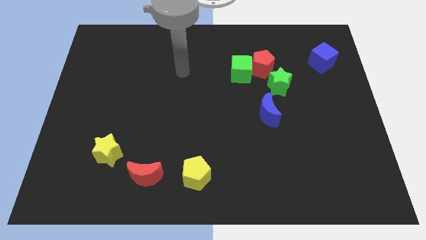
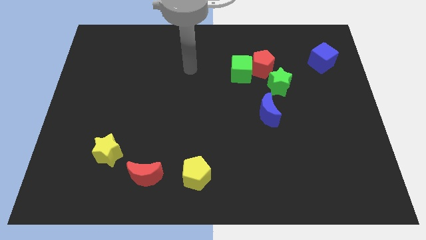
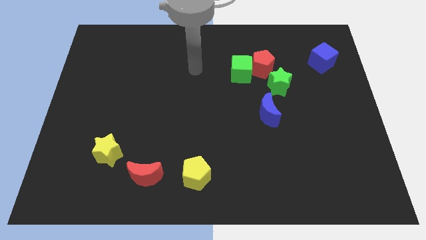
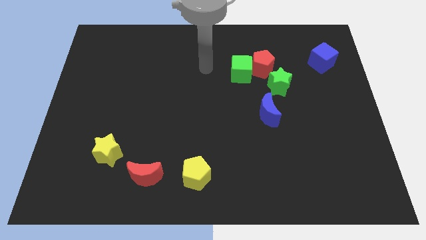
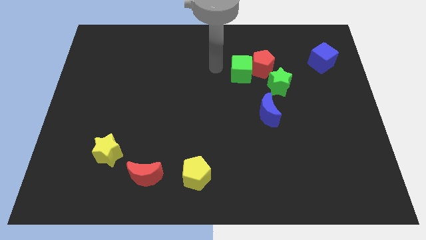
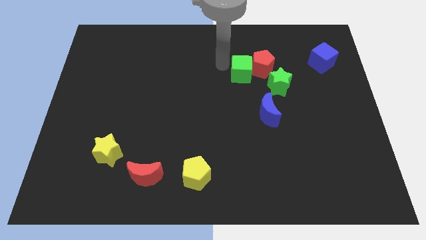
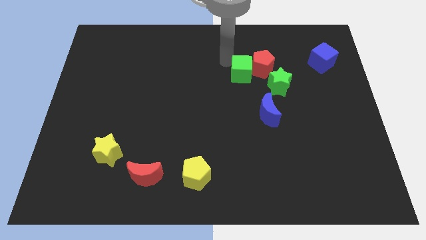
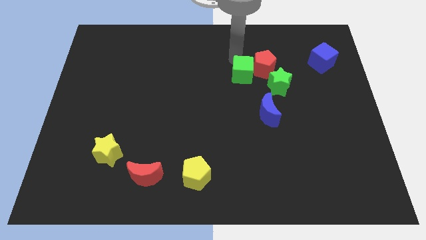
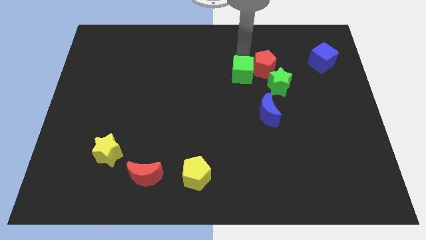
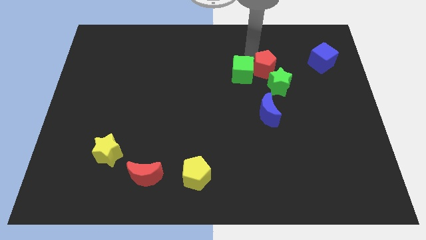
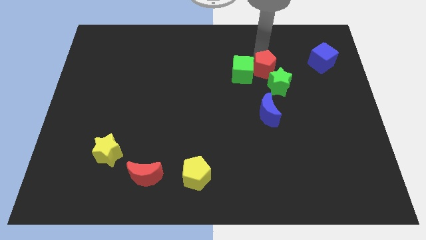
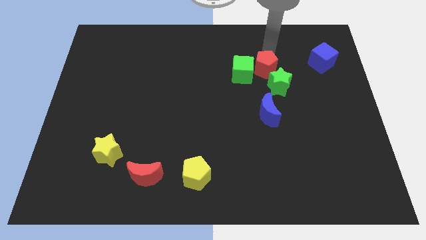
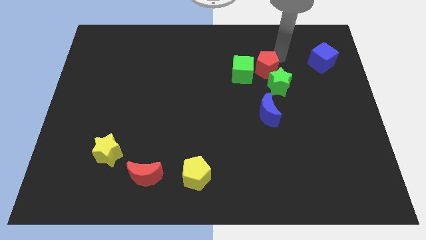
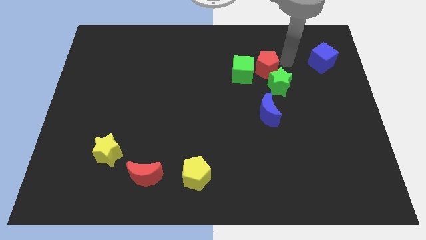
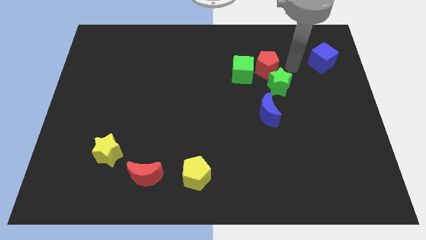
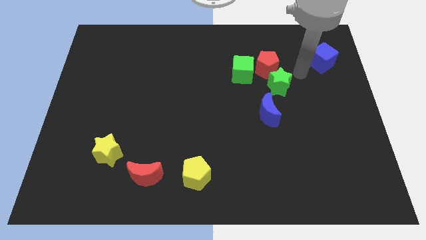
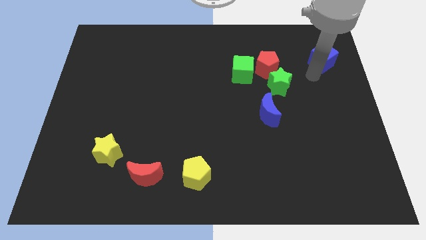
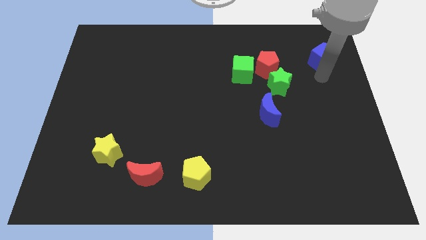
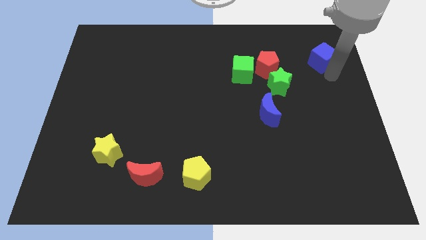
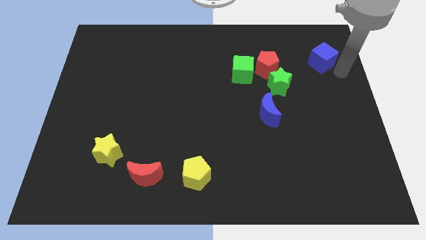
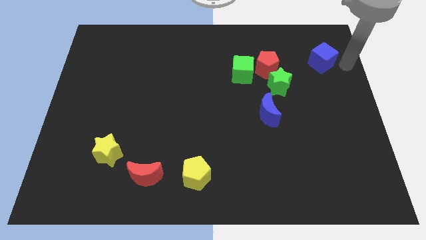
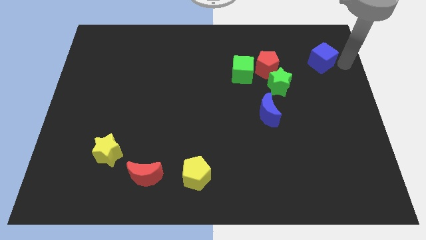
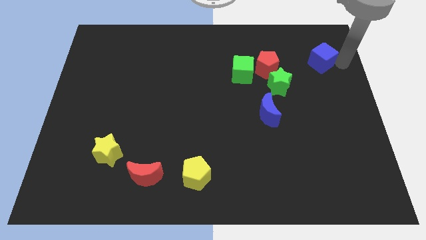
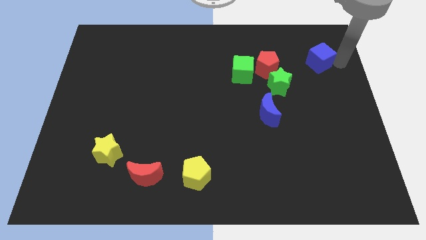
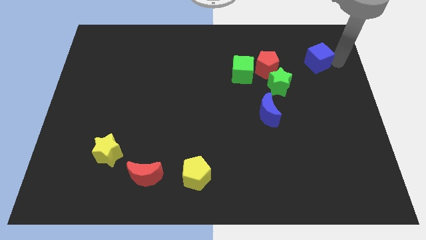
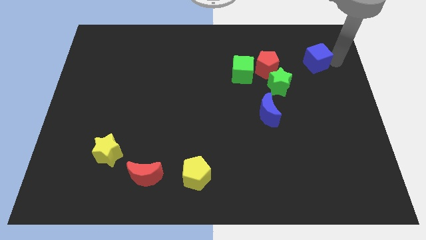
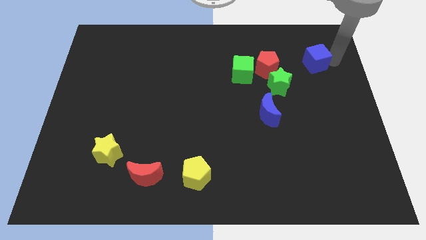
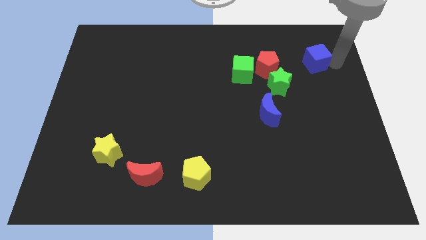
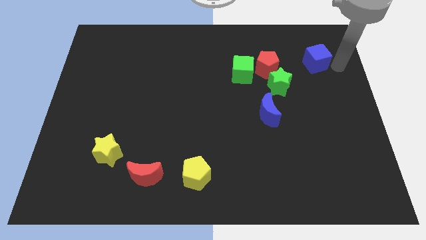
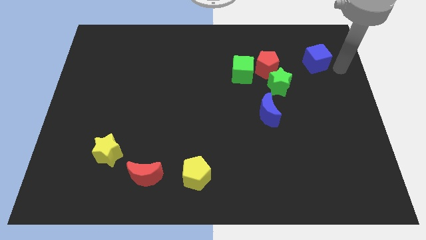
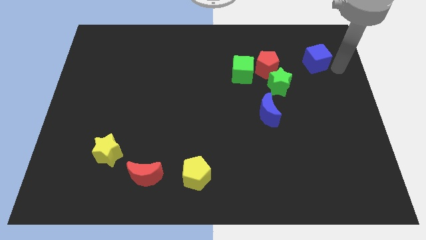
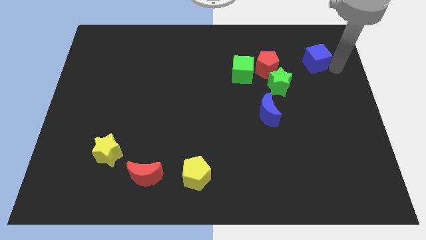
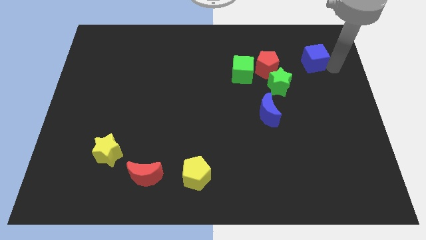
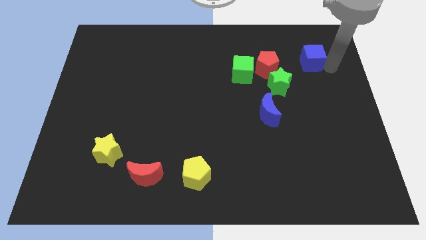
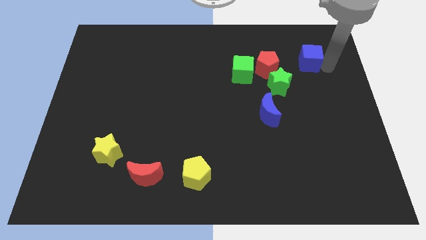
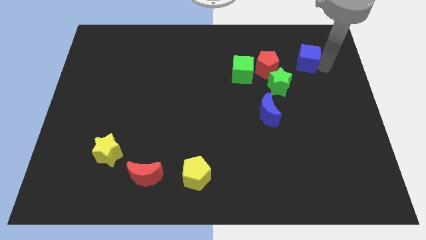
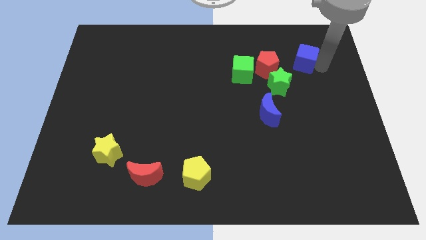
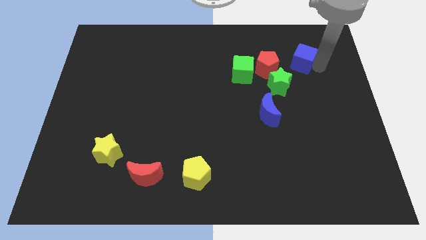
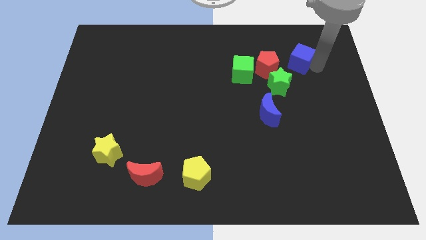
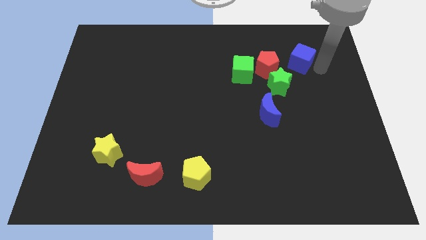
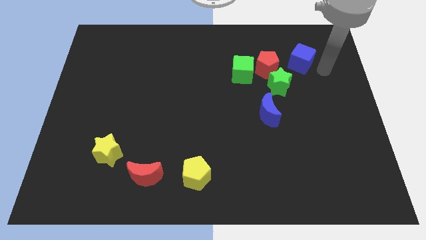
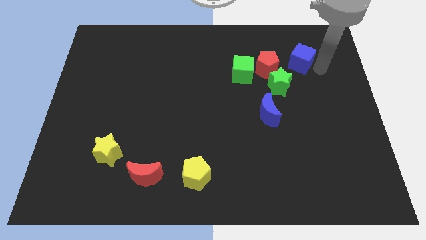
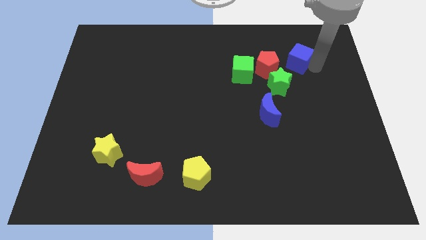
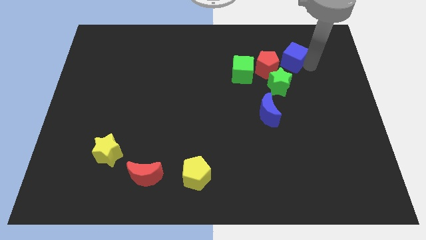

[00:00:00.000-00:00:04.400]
slightly slide the blue cube left

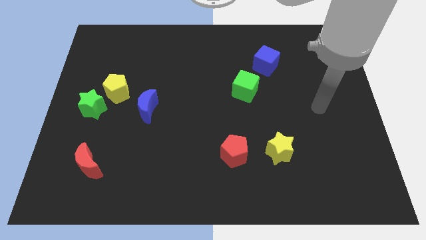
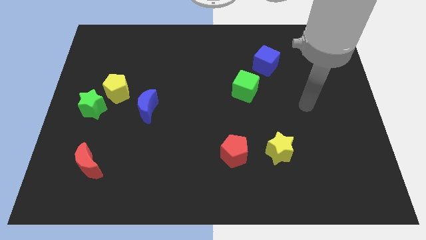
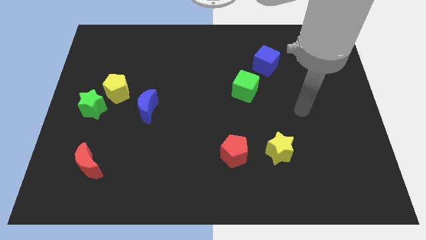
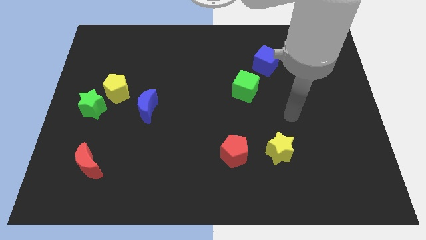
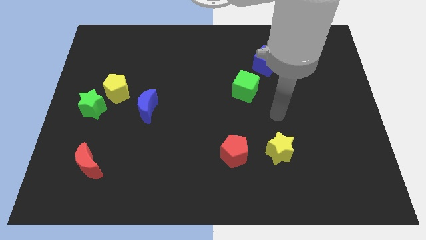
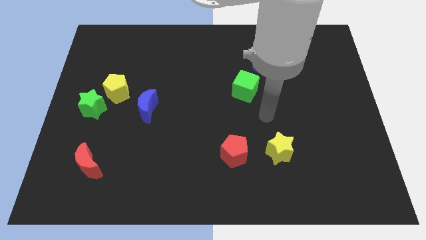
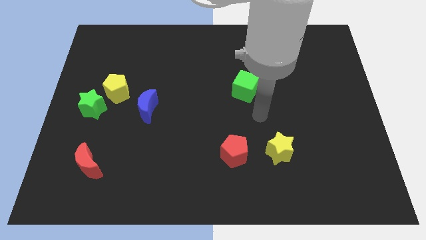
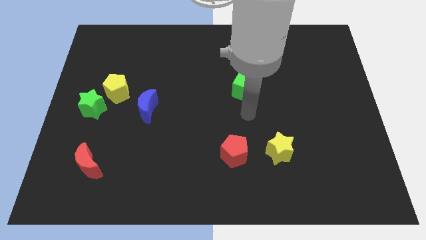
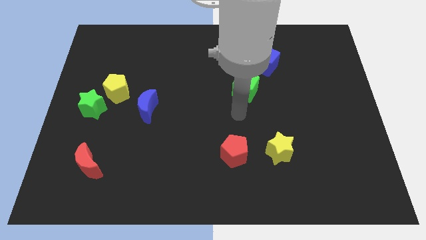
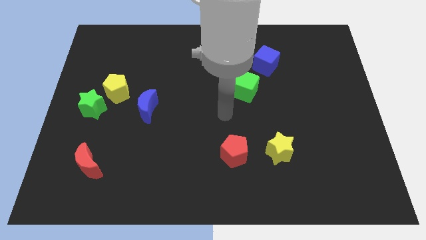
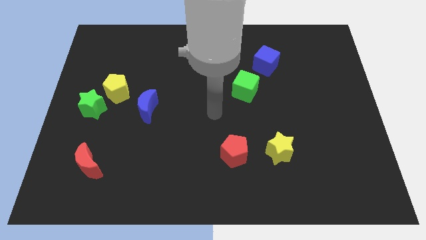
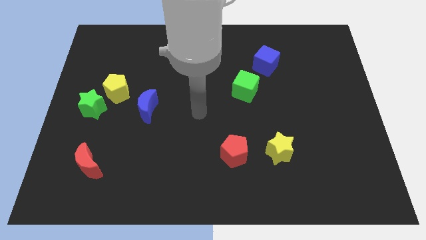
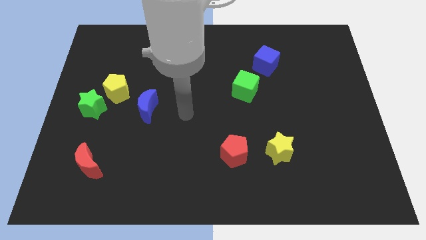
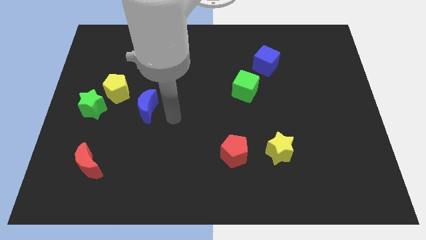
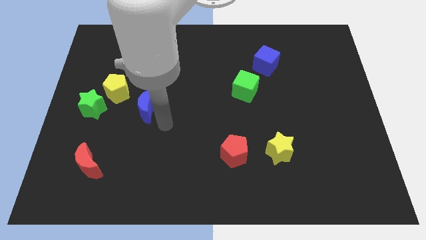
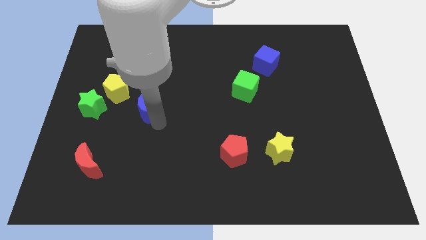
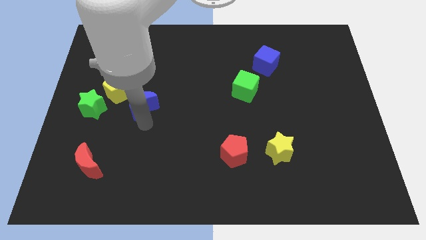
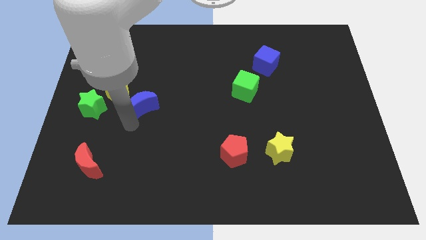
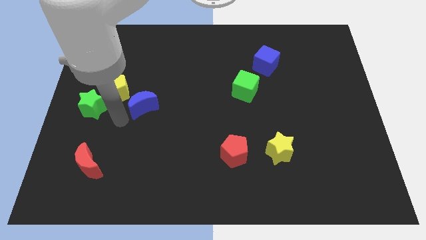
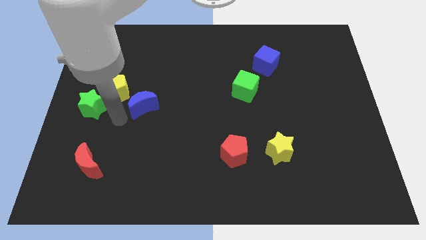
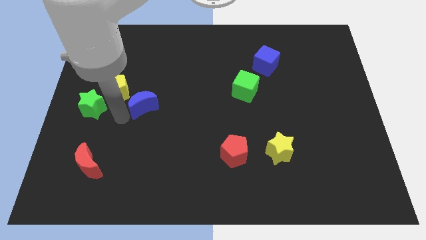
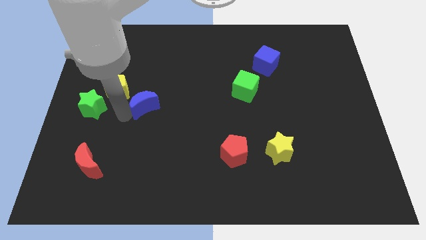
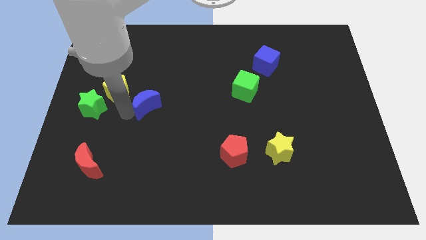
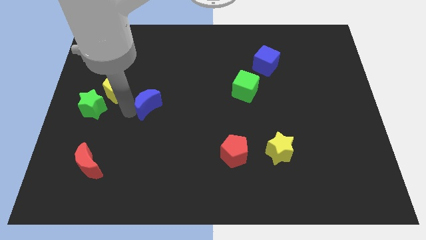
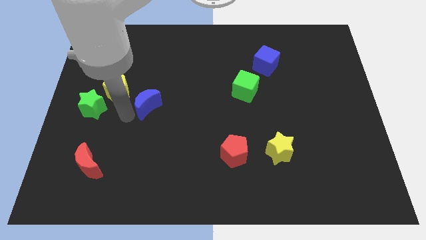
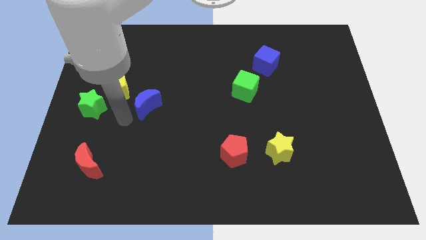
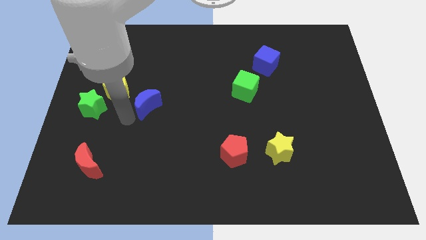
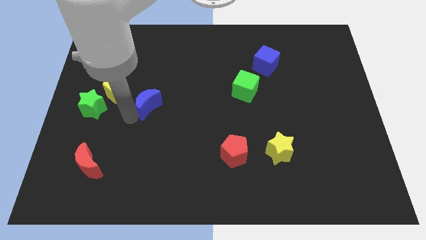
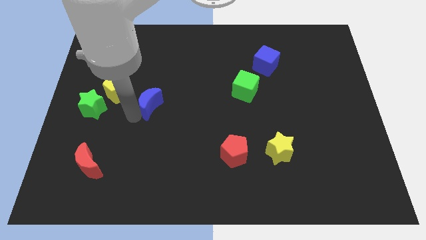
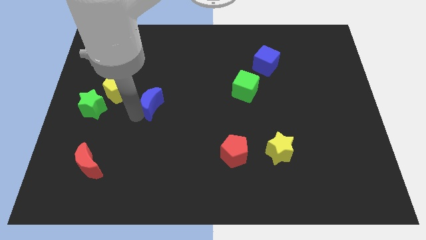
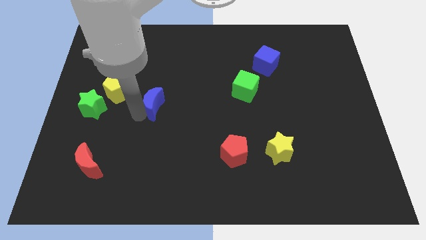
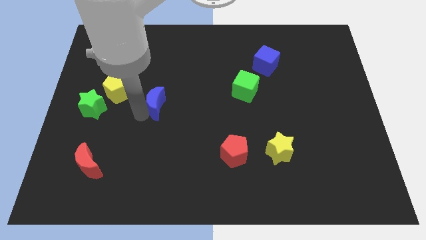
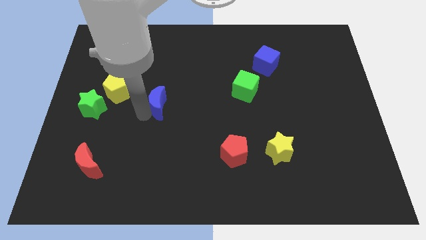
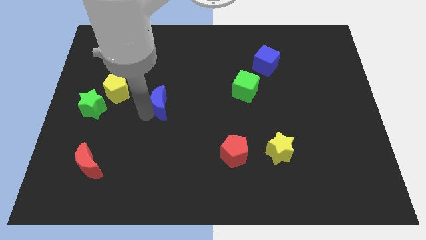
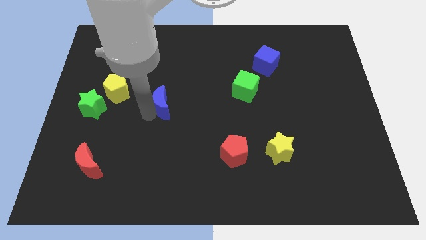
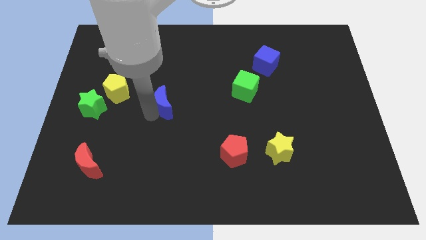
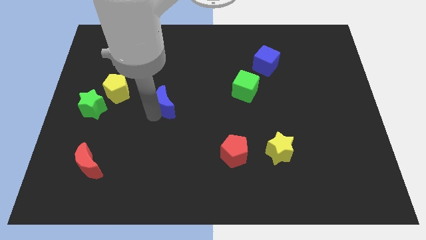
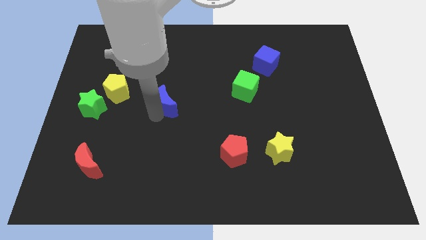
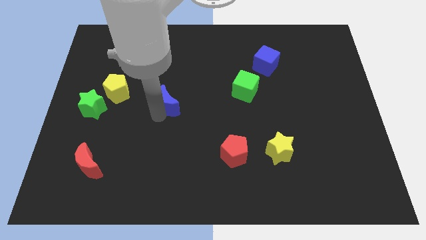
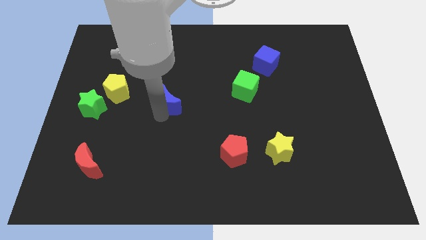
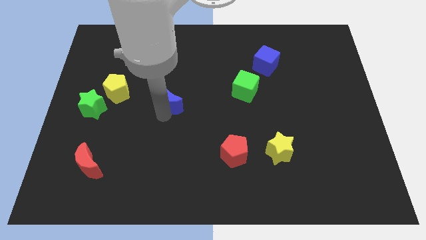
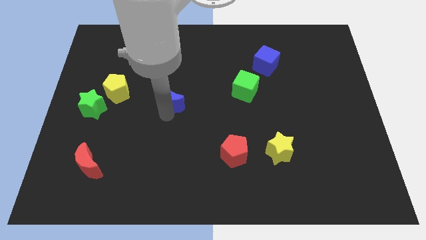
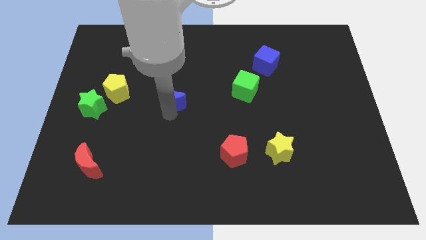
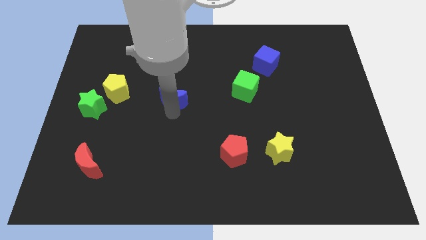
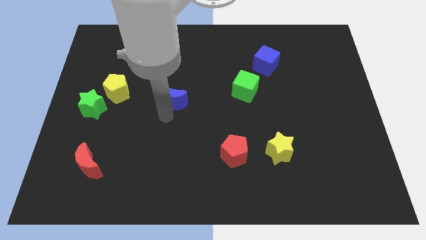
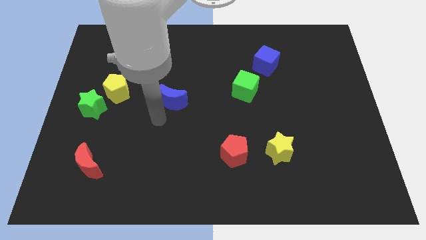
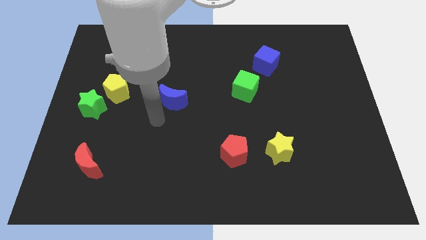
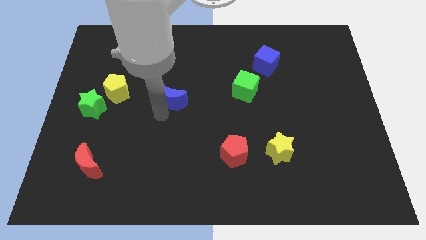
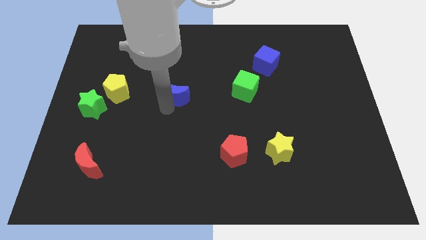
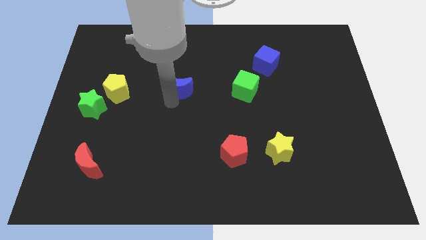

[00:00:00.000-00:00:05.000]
slide the blue moon upwards and then right a little bit
